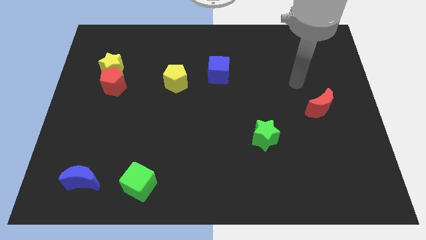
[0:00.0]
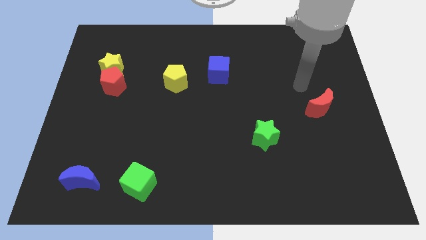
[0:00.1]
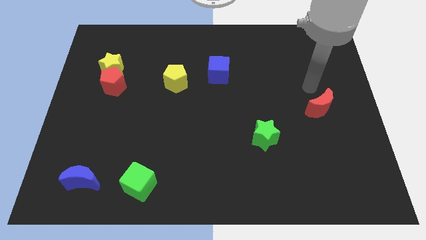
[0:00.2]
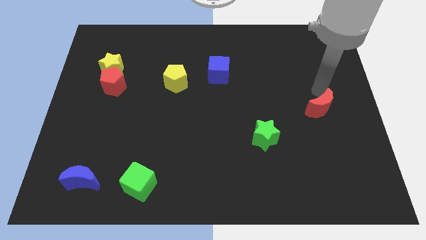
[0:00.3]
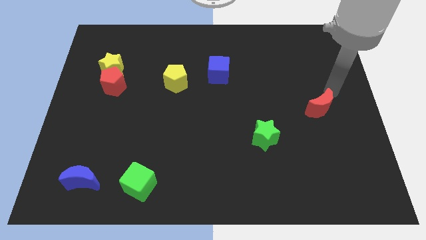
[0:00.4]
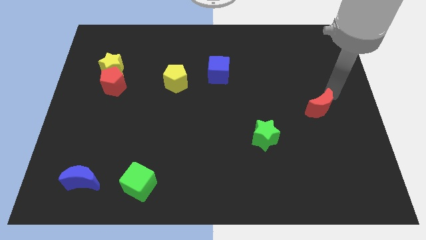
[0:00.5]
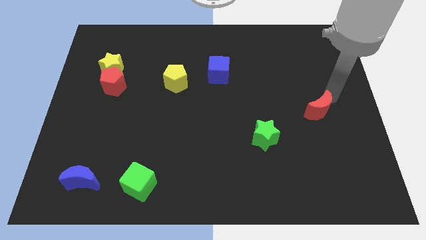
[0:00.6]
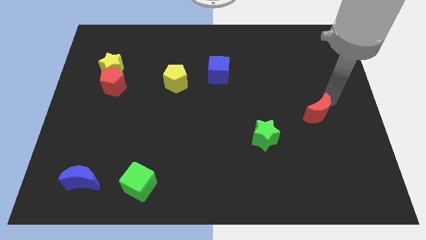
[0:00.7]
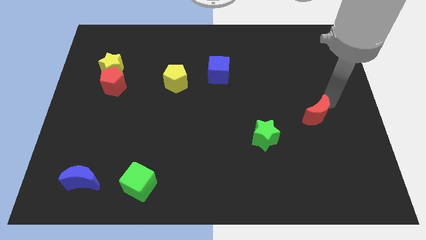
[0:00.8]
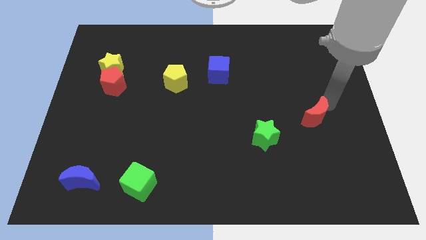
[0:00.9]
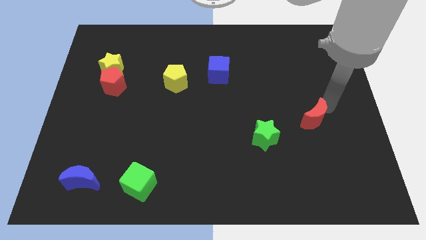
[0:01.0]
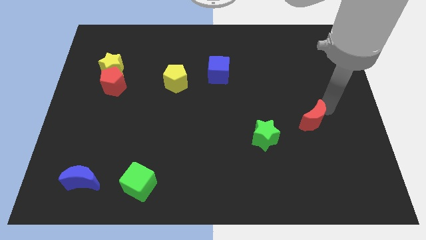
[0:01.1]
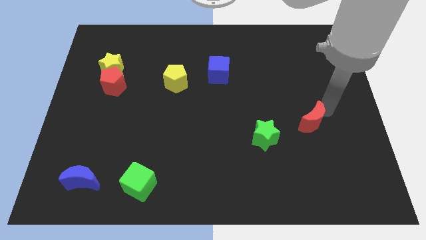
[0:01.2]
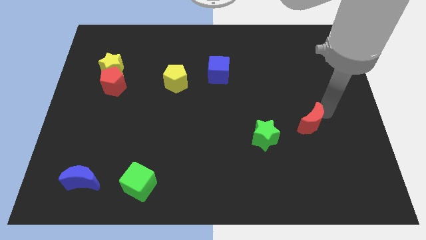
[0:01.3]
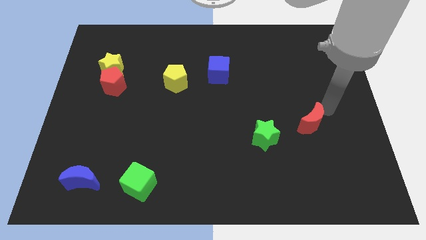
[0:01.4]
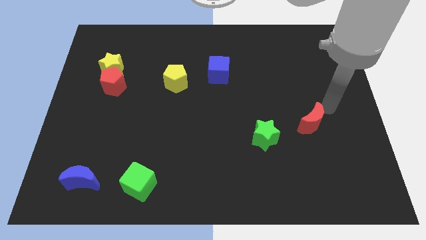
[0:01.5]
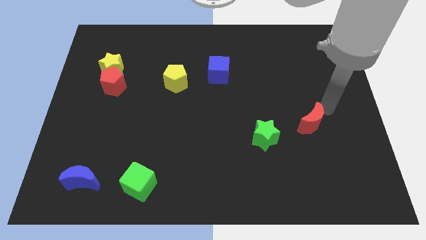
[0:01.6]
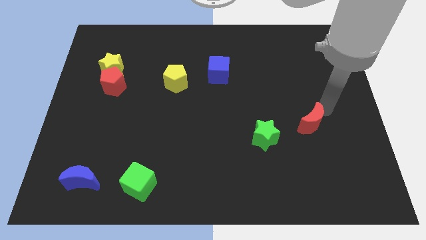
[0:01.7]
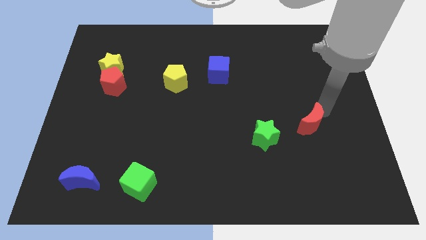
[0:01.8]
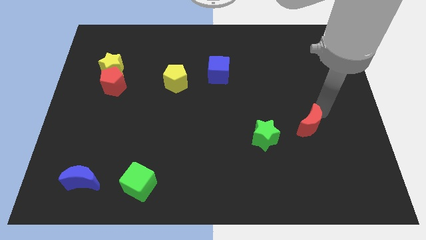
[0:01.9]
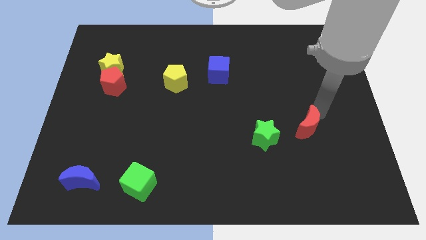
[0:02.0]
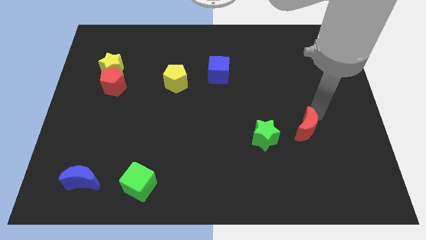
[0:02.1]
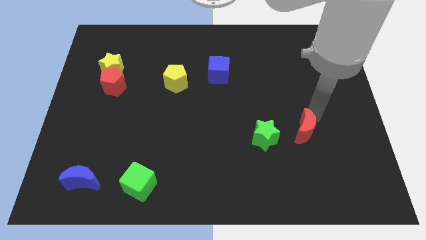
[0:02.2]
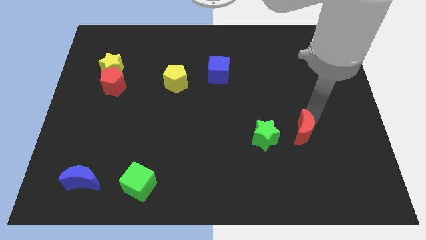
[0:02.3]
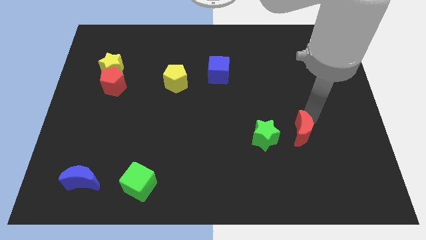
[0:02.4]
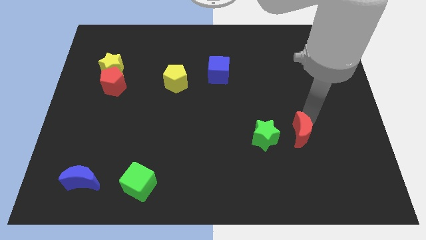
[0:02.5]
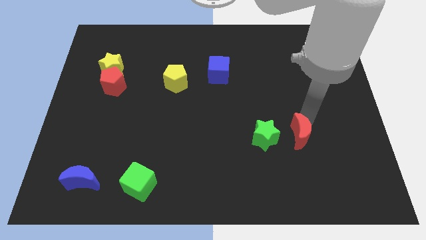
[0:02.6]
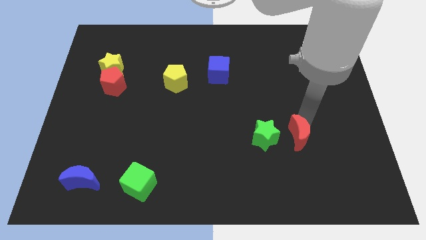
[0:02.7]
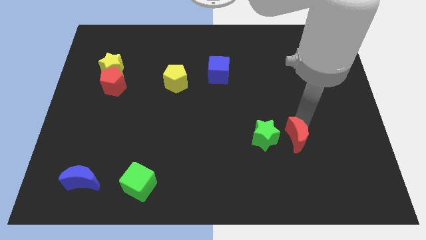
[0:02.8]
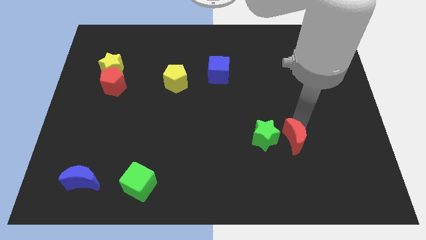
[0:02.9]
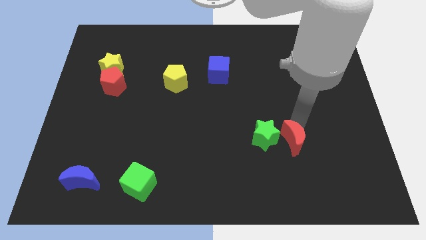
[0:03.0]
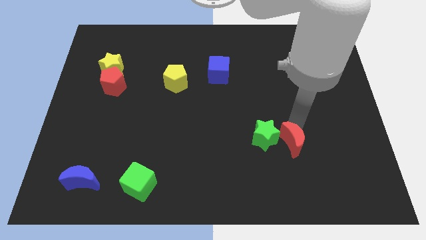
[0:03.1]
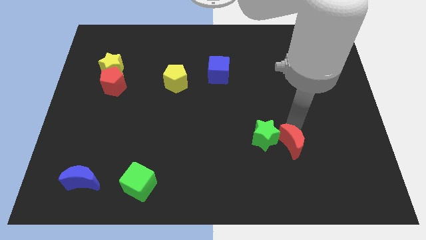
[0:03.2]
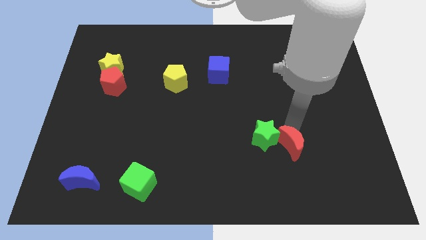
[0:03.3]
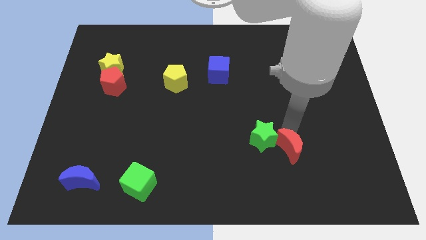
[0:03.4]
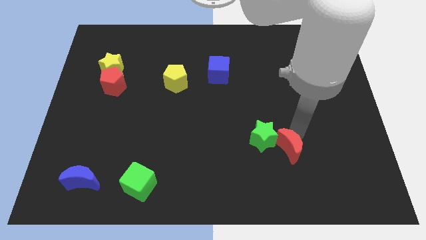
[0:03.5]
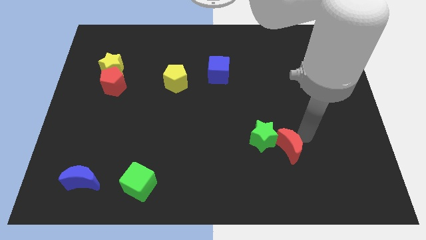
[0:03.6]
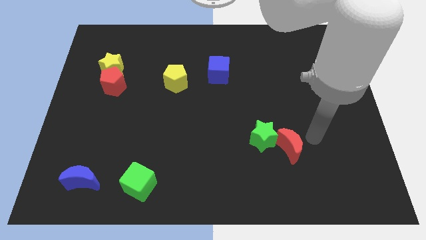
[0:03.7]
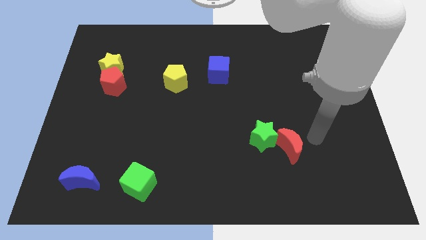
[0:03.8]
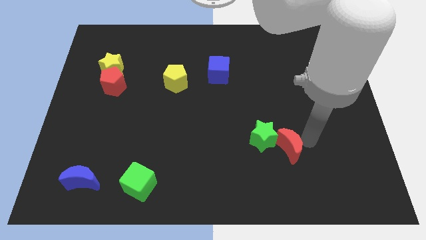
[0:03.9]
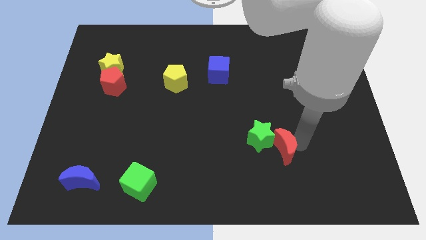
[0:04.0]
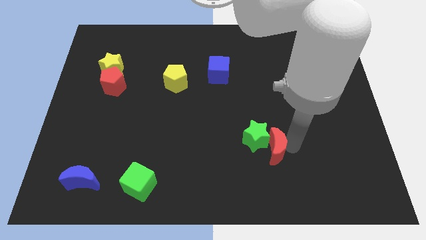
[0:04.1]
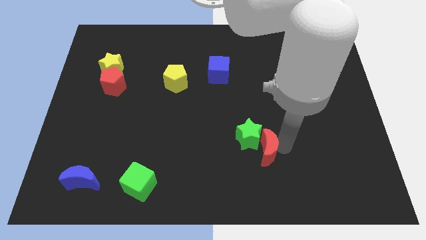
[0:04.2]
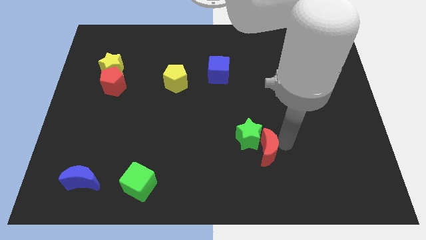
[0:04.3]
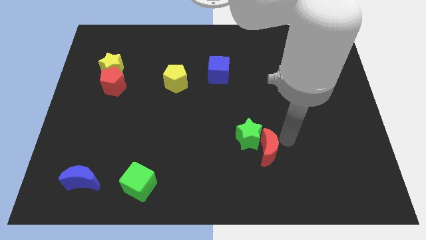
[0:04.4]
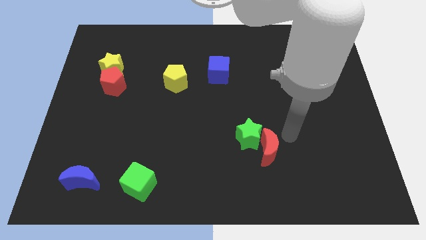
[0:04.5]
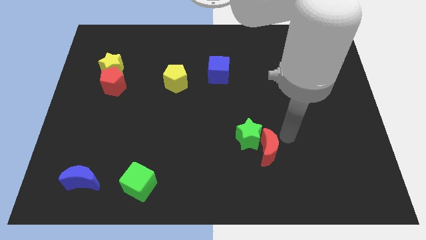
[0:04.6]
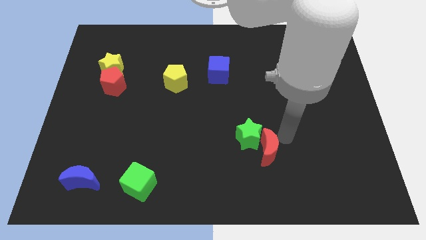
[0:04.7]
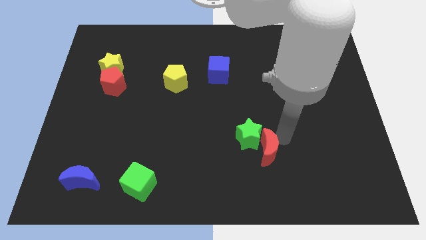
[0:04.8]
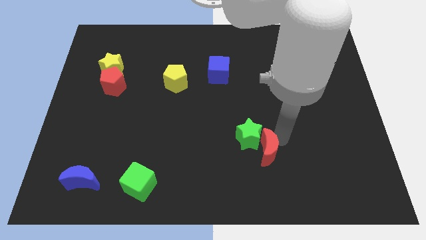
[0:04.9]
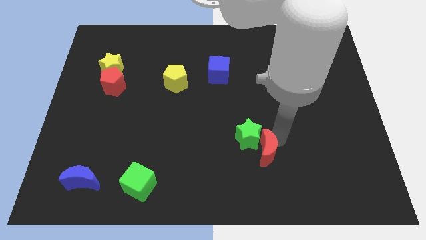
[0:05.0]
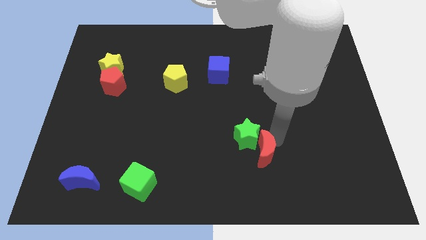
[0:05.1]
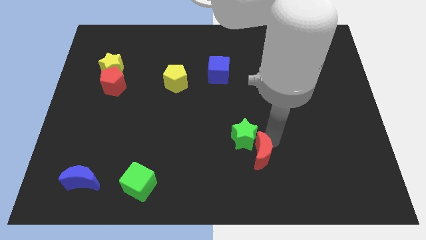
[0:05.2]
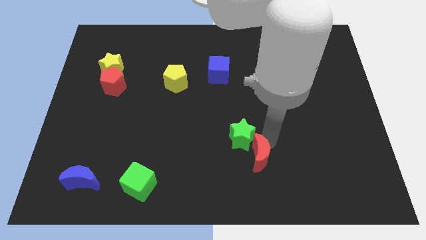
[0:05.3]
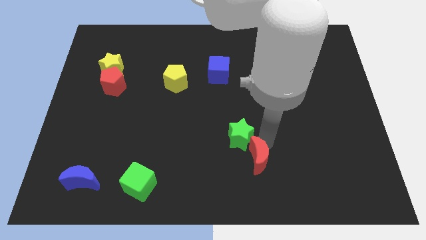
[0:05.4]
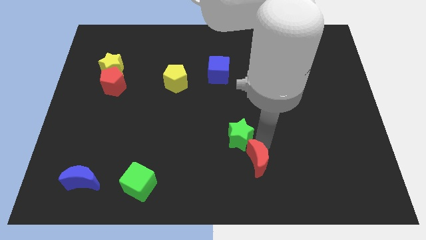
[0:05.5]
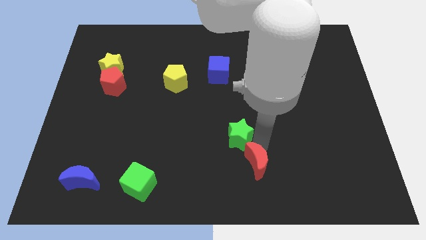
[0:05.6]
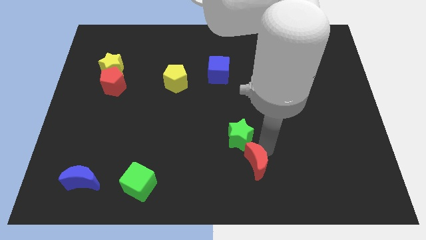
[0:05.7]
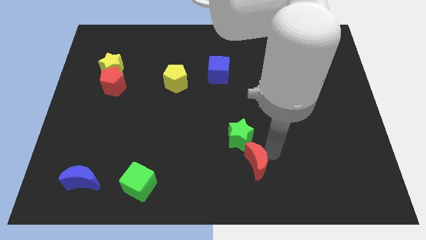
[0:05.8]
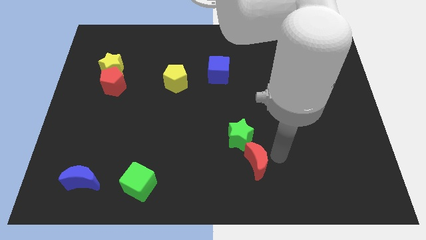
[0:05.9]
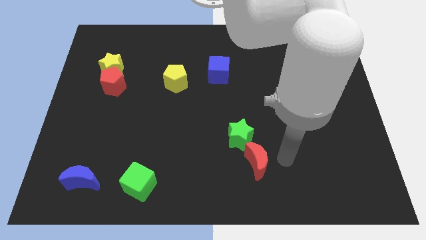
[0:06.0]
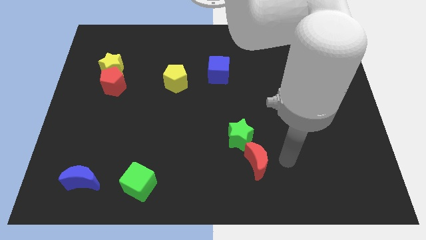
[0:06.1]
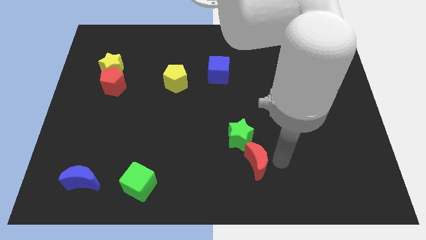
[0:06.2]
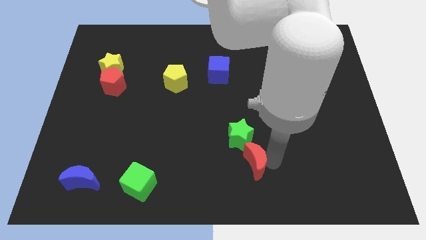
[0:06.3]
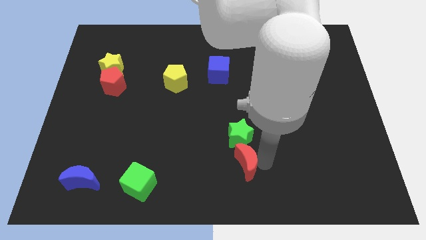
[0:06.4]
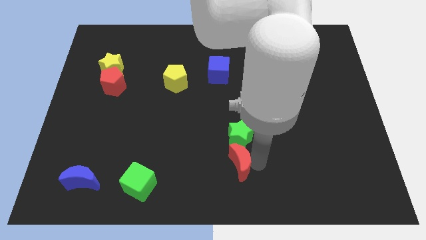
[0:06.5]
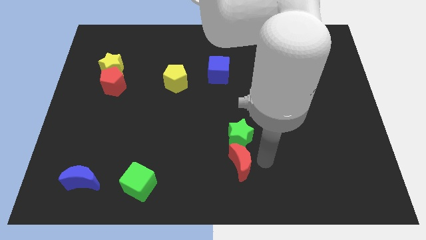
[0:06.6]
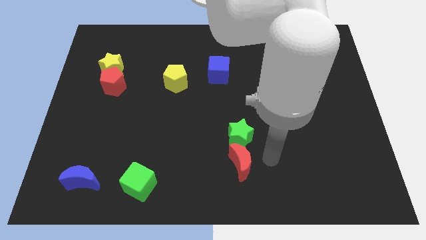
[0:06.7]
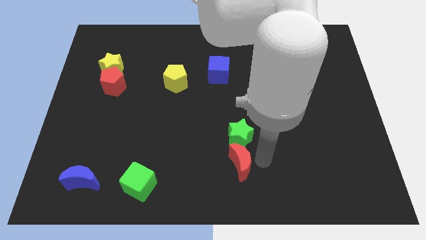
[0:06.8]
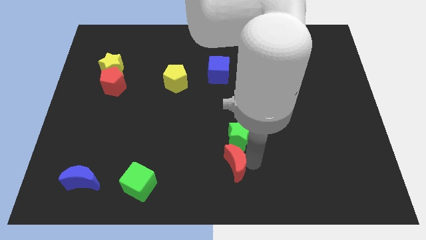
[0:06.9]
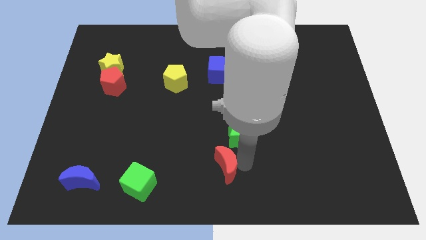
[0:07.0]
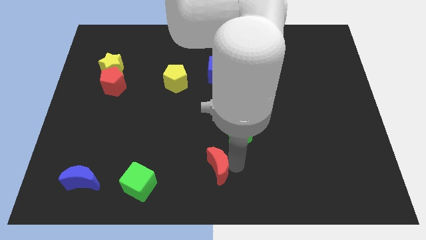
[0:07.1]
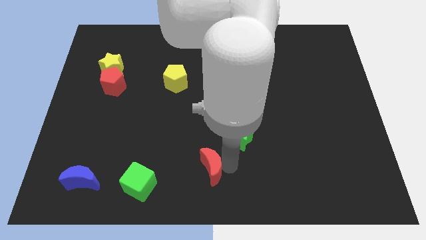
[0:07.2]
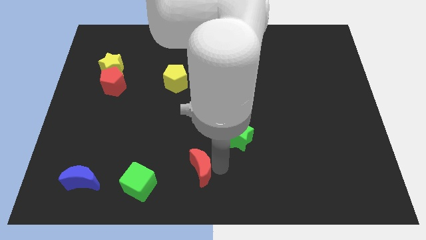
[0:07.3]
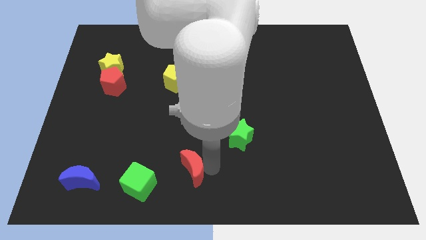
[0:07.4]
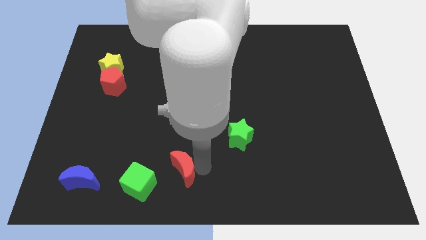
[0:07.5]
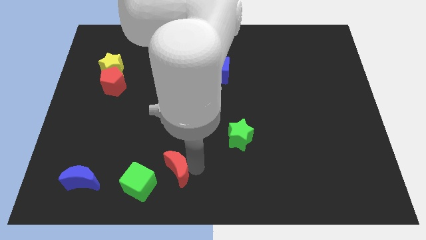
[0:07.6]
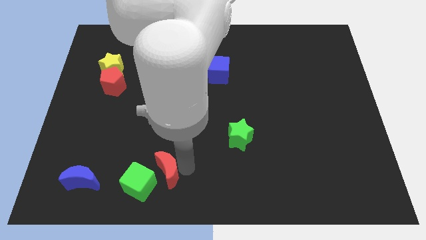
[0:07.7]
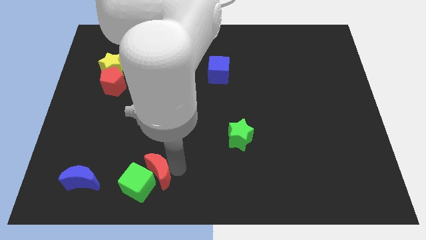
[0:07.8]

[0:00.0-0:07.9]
move the red moon to the green cube

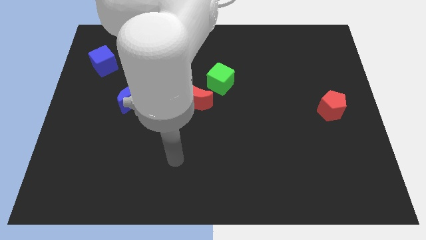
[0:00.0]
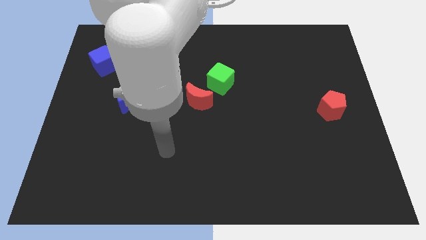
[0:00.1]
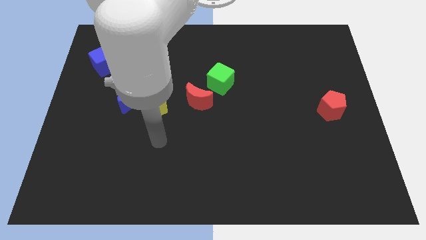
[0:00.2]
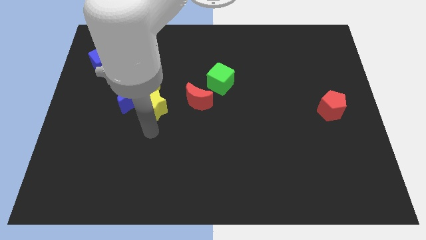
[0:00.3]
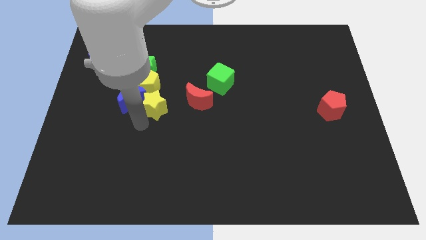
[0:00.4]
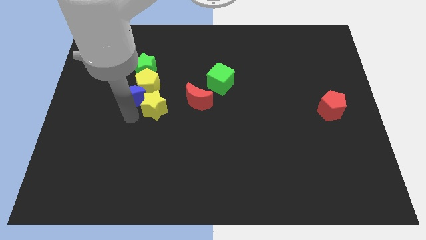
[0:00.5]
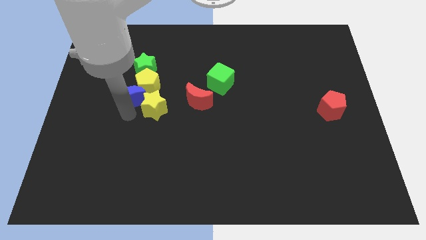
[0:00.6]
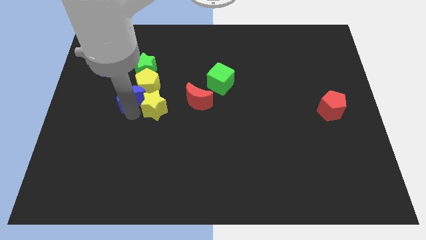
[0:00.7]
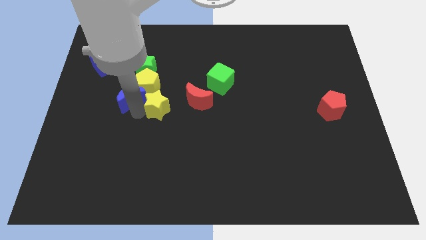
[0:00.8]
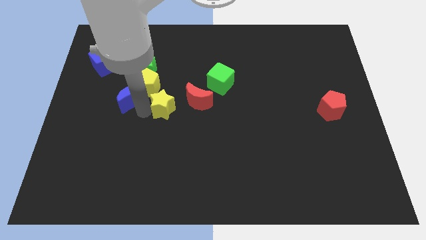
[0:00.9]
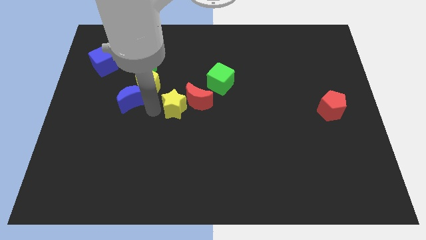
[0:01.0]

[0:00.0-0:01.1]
move the yellow star to the red moon
